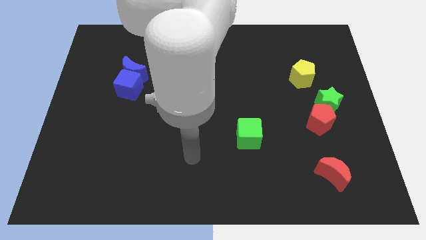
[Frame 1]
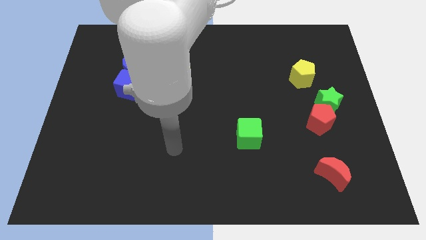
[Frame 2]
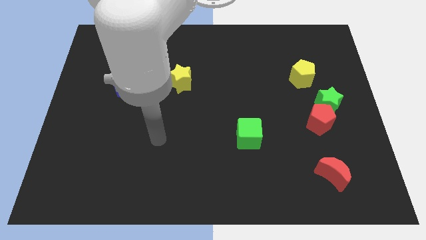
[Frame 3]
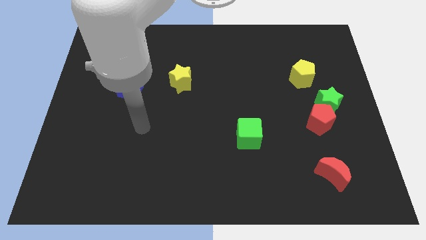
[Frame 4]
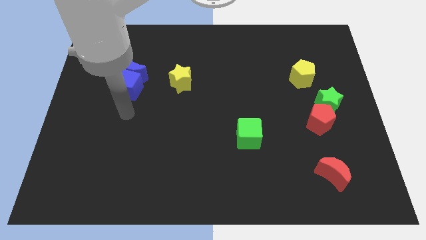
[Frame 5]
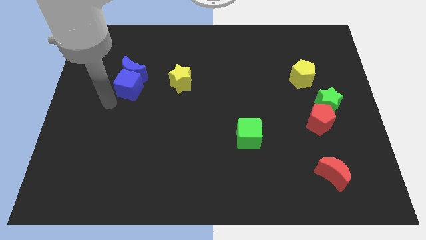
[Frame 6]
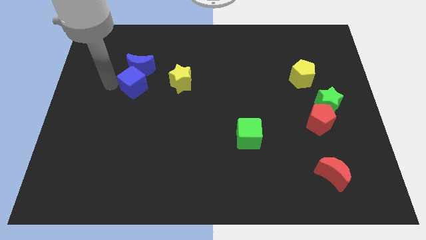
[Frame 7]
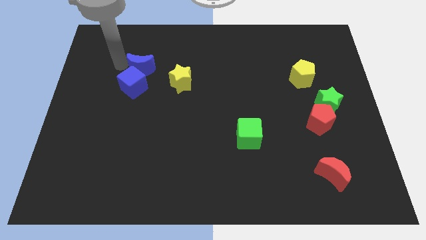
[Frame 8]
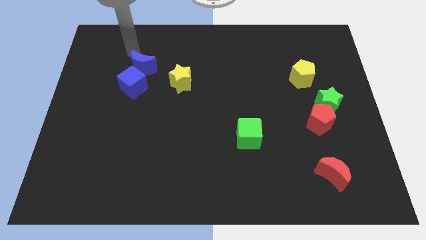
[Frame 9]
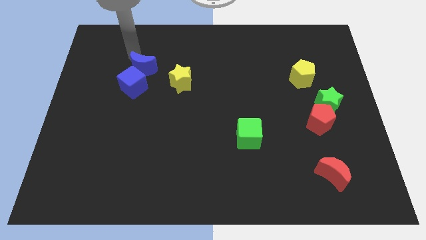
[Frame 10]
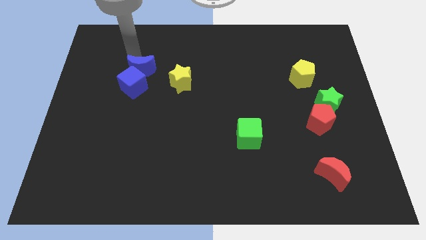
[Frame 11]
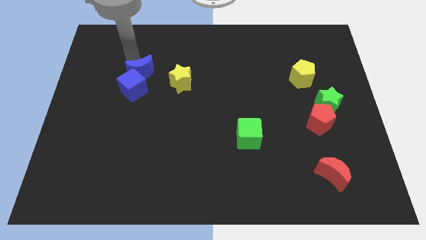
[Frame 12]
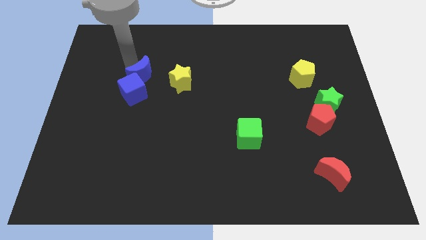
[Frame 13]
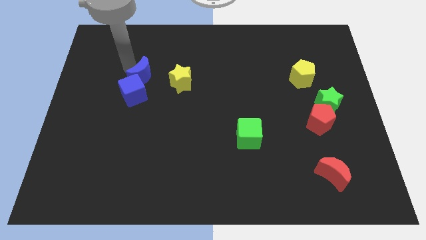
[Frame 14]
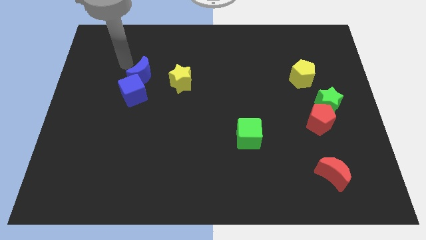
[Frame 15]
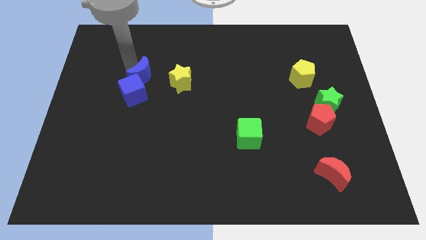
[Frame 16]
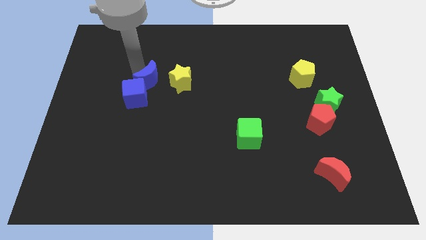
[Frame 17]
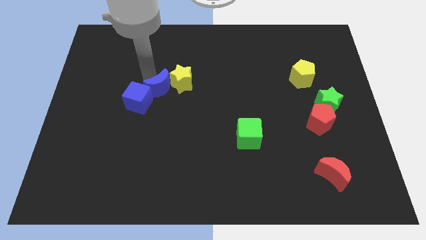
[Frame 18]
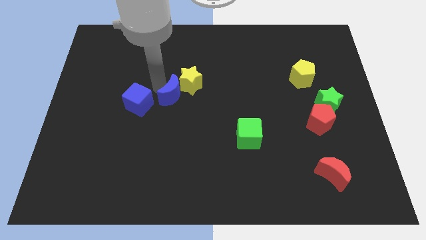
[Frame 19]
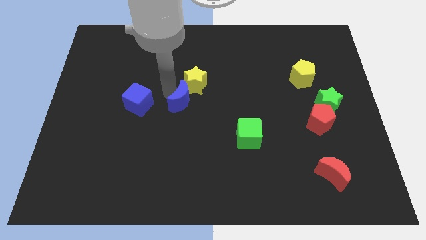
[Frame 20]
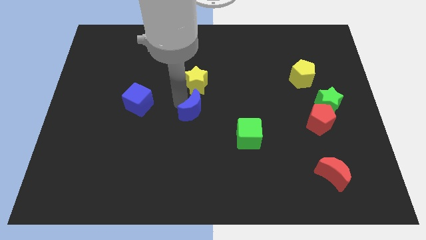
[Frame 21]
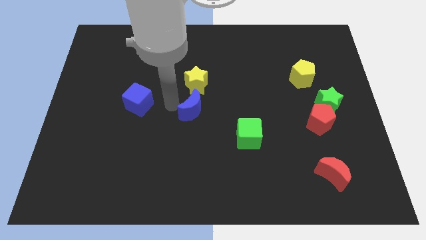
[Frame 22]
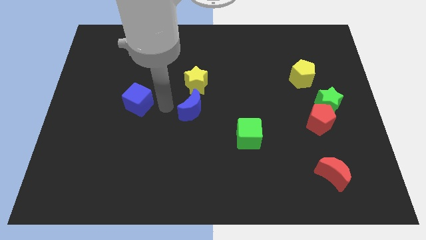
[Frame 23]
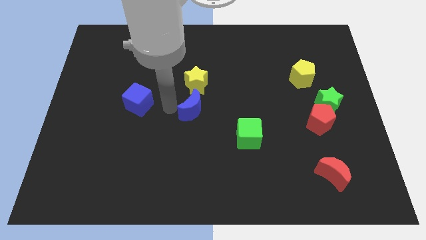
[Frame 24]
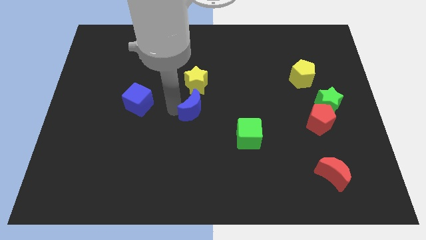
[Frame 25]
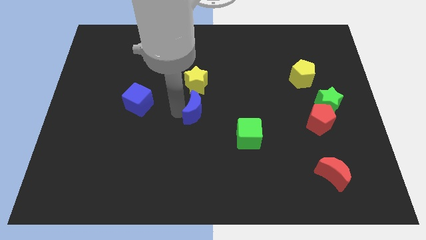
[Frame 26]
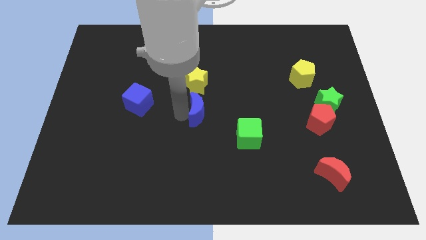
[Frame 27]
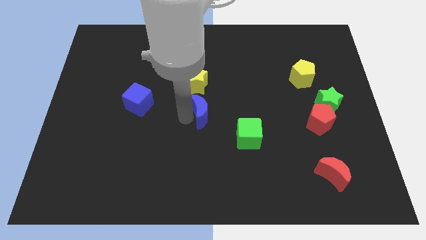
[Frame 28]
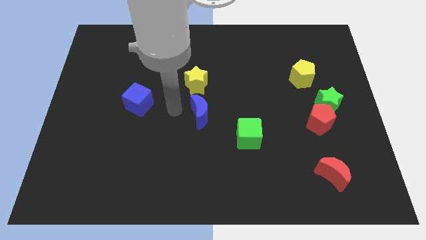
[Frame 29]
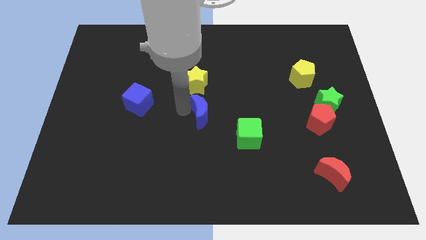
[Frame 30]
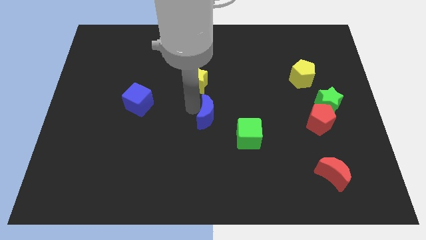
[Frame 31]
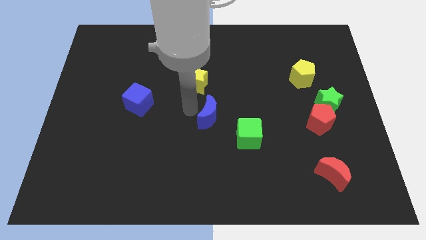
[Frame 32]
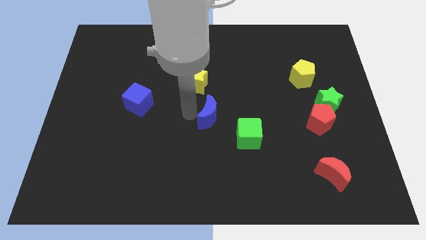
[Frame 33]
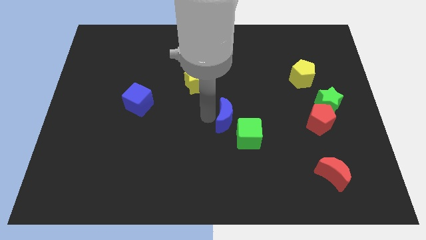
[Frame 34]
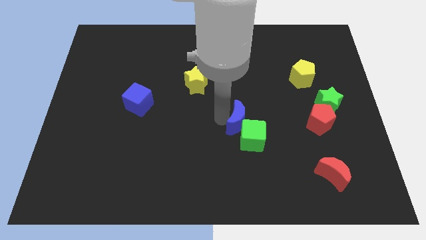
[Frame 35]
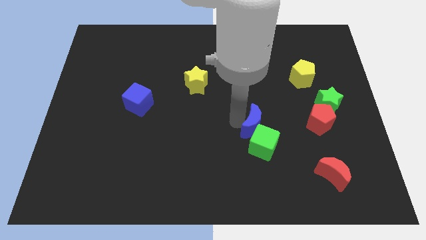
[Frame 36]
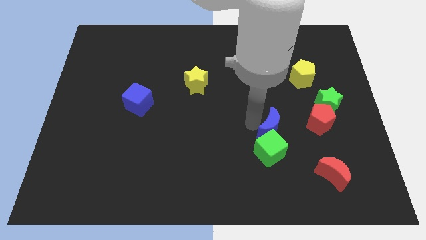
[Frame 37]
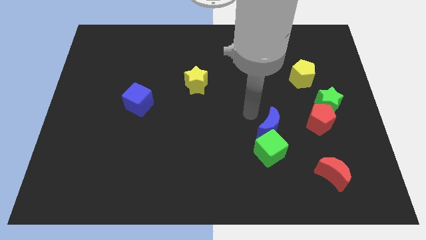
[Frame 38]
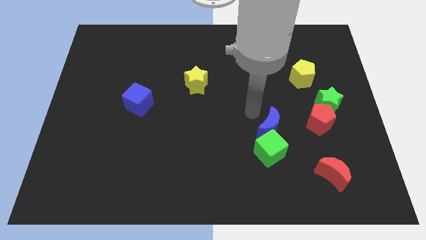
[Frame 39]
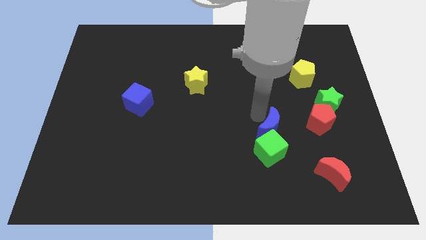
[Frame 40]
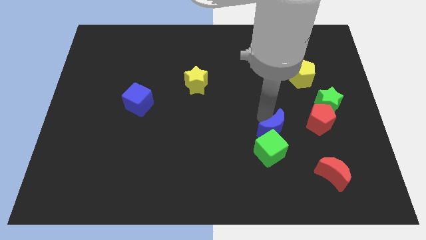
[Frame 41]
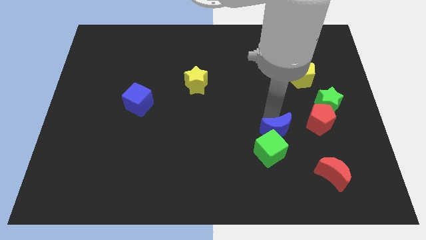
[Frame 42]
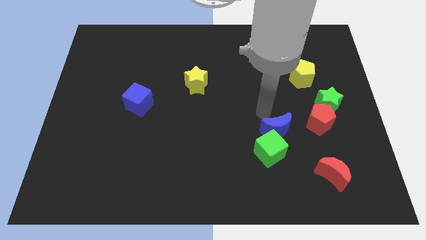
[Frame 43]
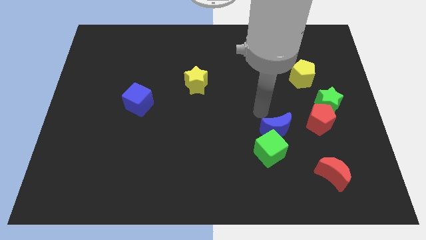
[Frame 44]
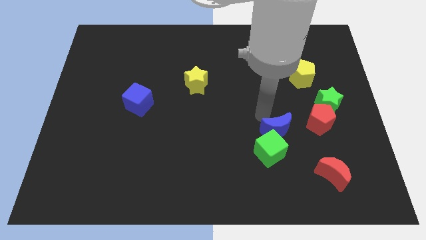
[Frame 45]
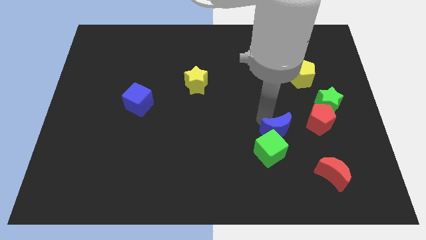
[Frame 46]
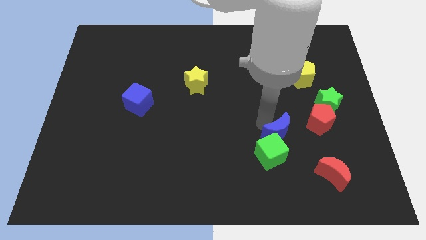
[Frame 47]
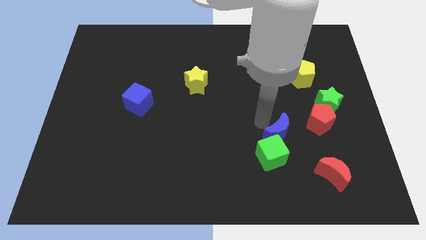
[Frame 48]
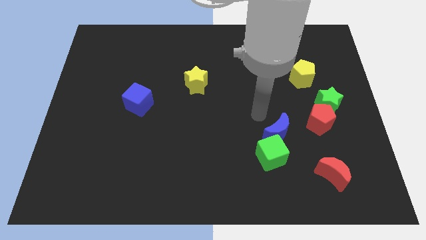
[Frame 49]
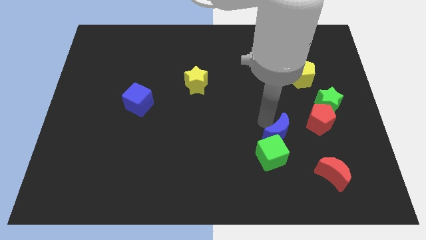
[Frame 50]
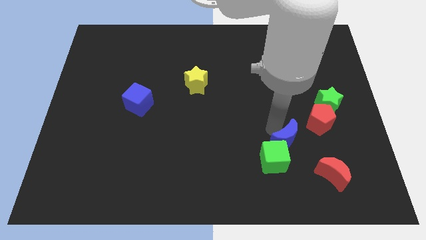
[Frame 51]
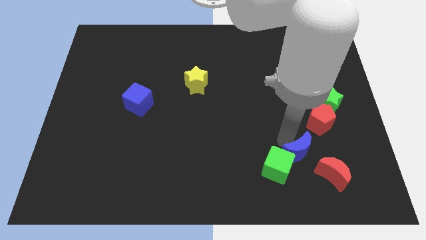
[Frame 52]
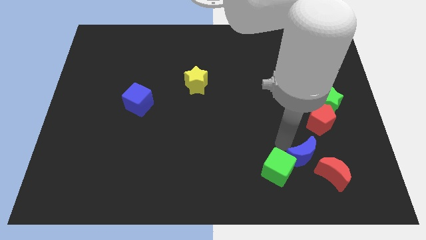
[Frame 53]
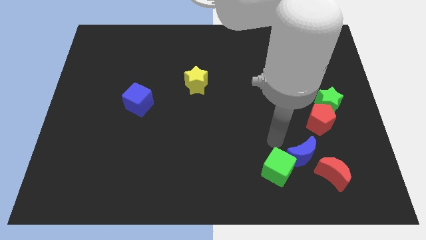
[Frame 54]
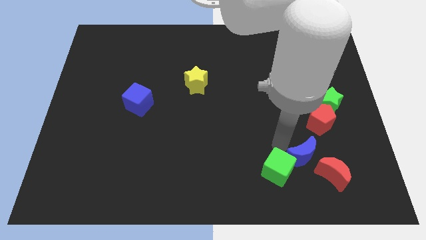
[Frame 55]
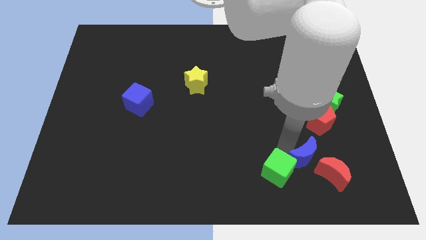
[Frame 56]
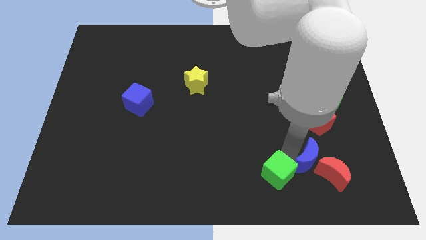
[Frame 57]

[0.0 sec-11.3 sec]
put the blue moon to the red moon

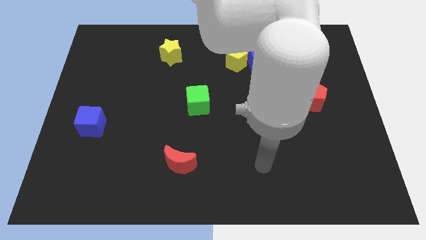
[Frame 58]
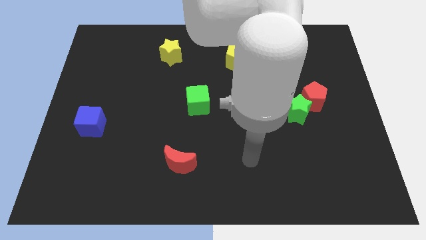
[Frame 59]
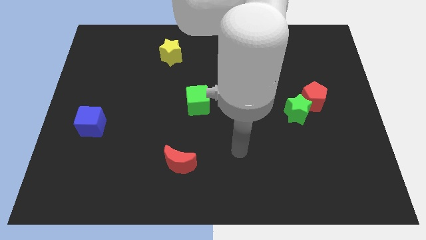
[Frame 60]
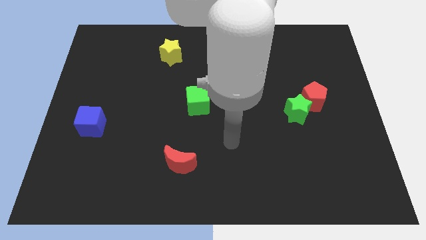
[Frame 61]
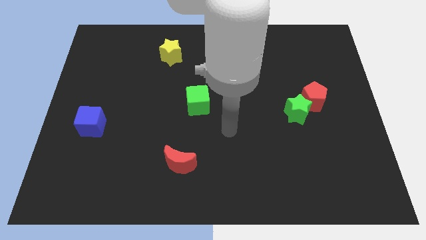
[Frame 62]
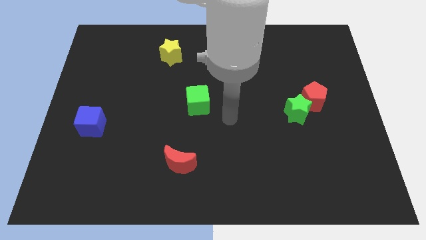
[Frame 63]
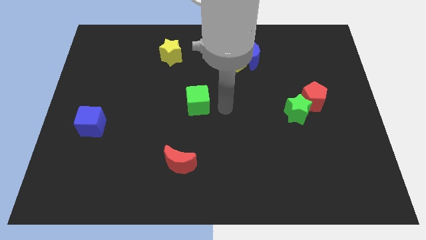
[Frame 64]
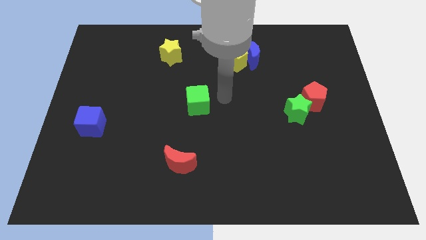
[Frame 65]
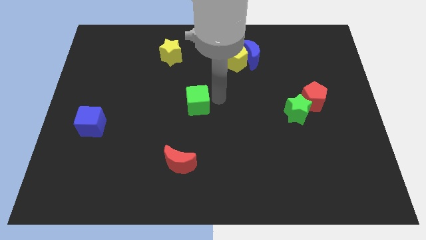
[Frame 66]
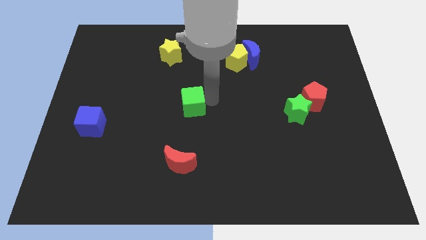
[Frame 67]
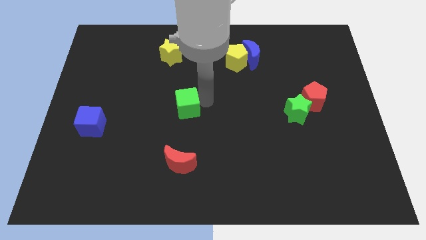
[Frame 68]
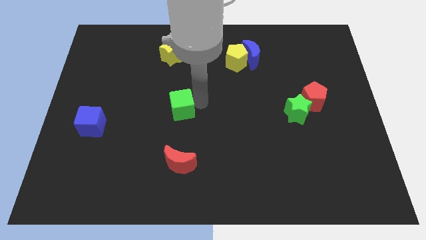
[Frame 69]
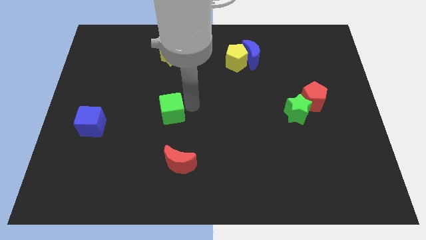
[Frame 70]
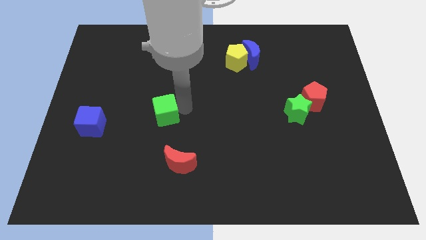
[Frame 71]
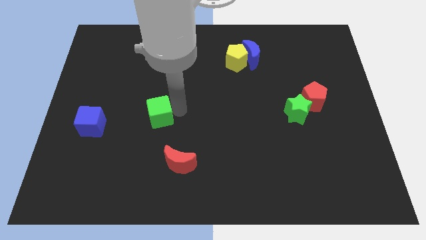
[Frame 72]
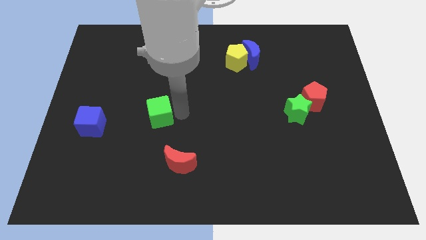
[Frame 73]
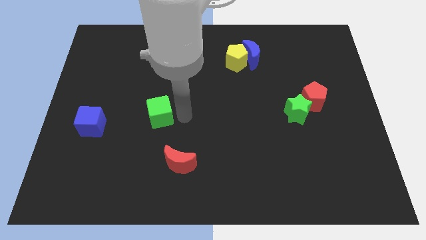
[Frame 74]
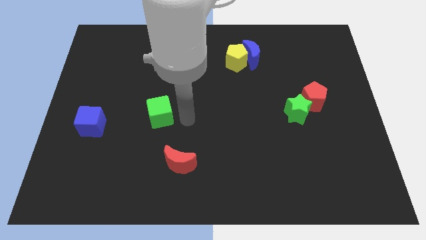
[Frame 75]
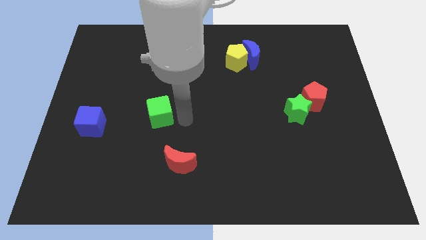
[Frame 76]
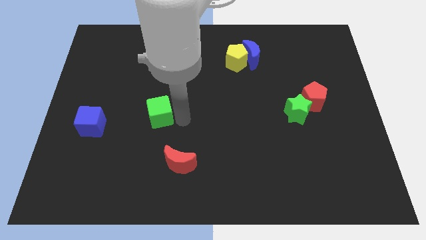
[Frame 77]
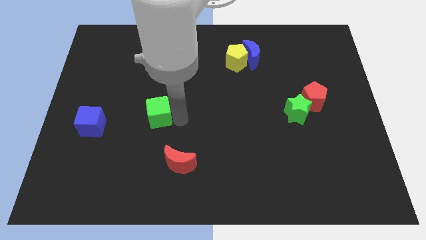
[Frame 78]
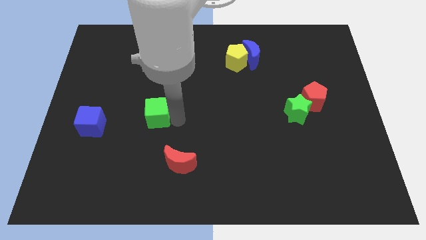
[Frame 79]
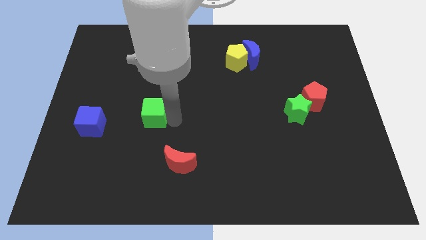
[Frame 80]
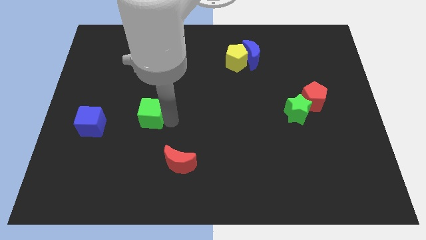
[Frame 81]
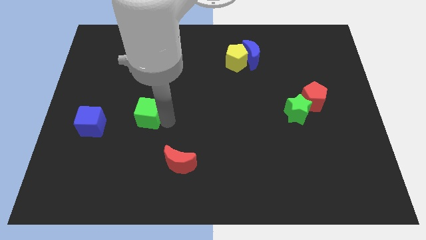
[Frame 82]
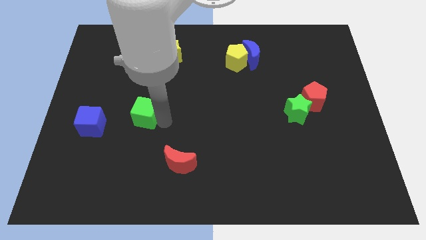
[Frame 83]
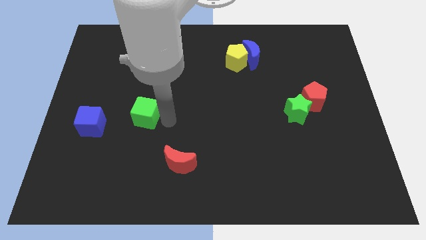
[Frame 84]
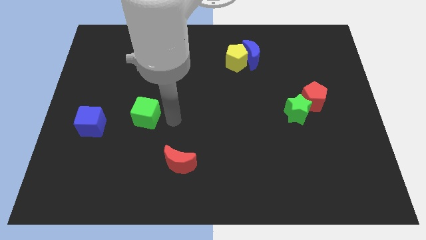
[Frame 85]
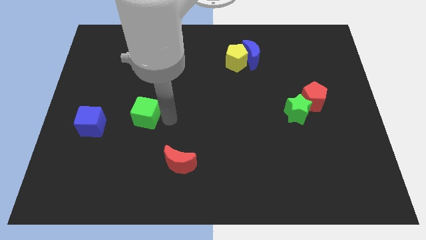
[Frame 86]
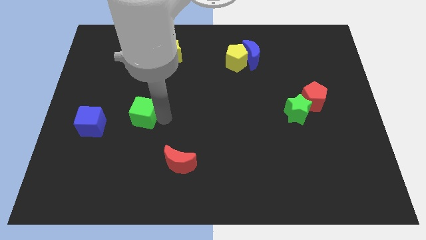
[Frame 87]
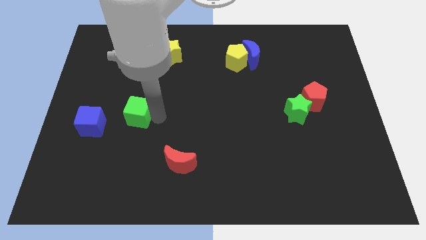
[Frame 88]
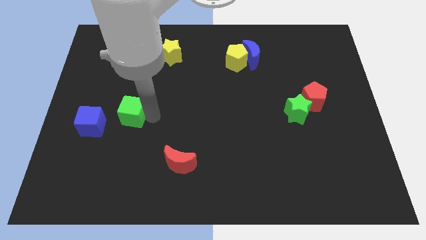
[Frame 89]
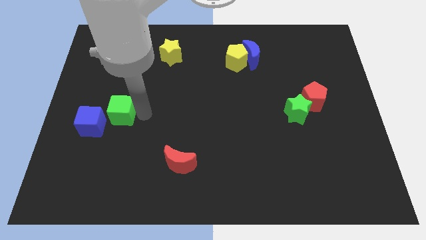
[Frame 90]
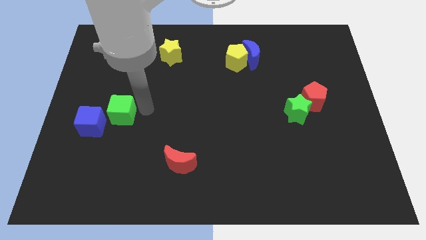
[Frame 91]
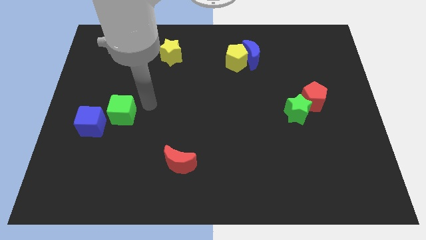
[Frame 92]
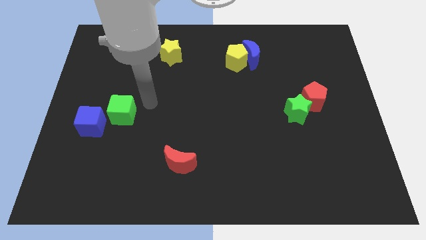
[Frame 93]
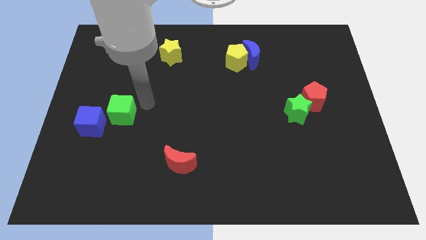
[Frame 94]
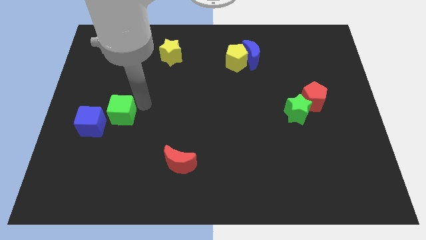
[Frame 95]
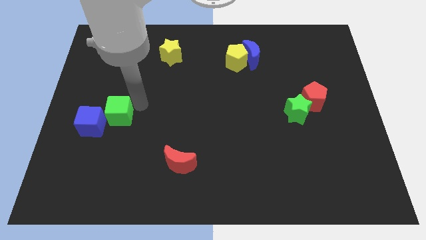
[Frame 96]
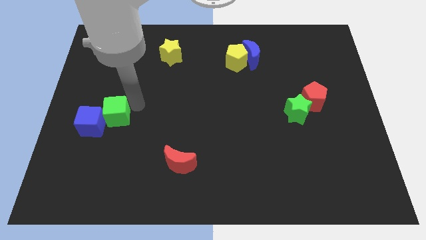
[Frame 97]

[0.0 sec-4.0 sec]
slide the green cube next to the blue cube
